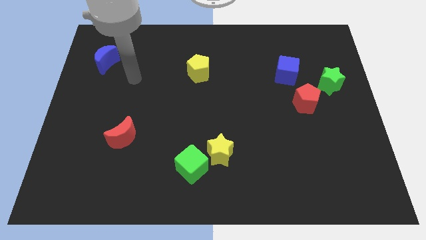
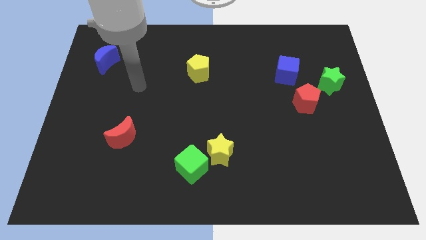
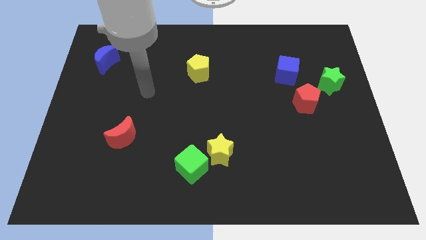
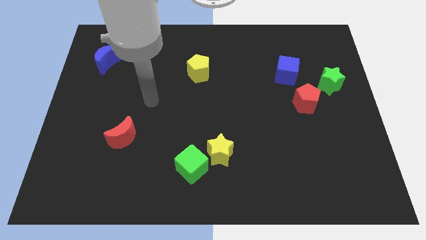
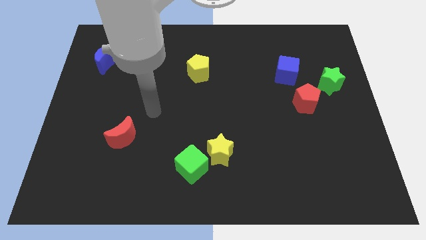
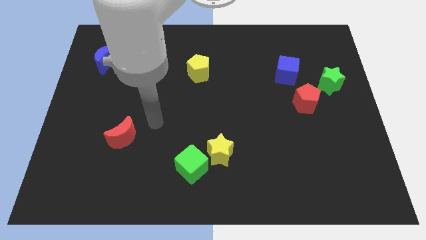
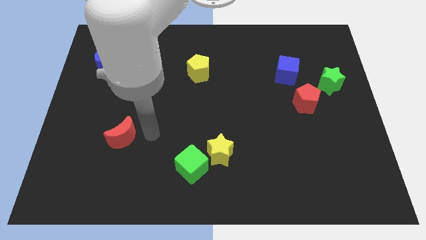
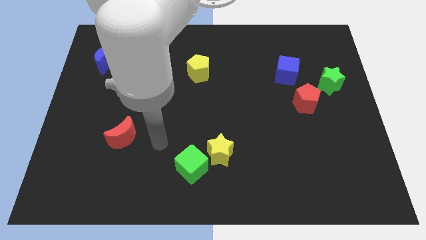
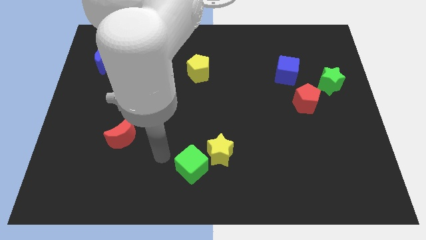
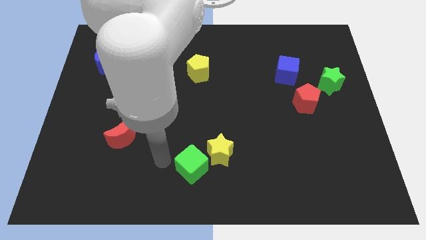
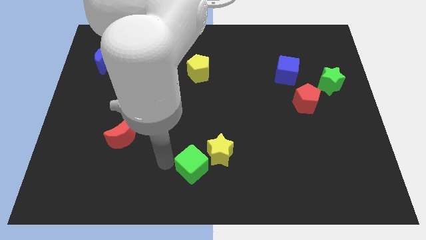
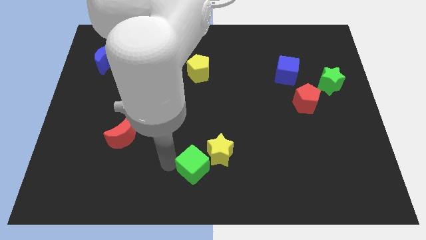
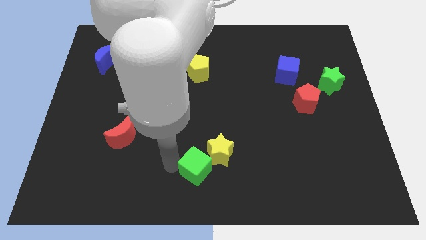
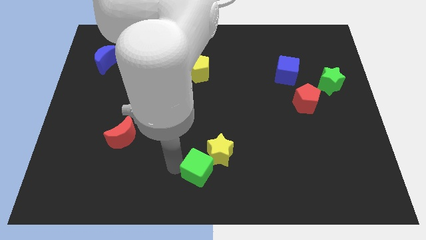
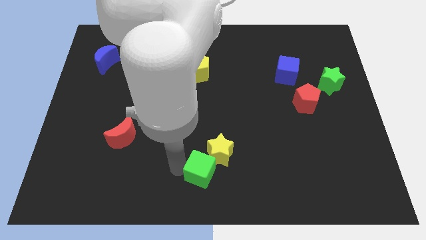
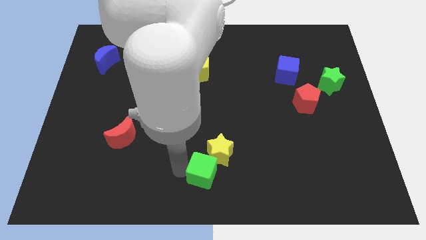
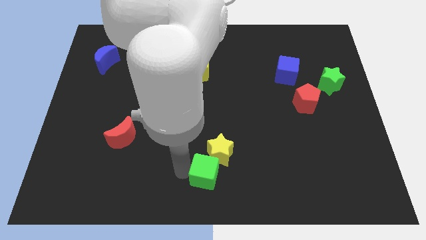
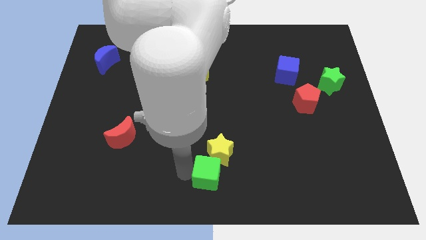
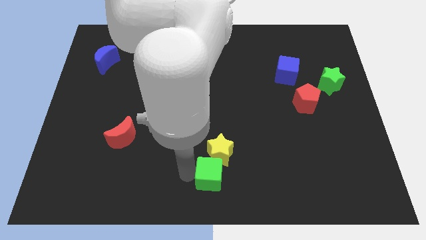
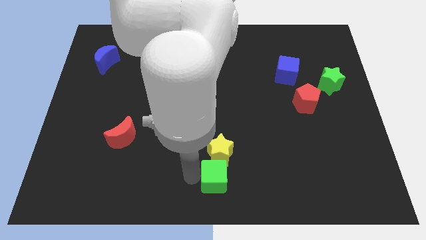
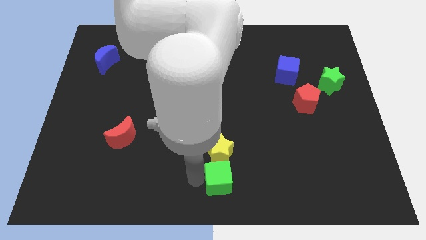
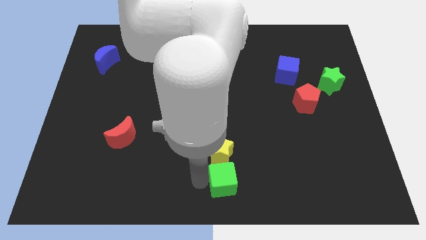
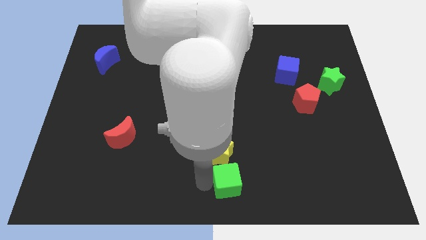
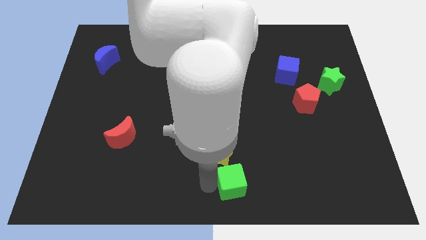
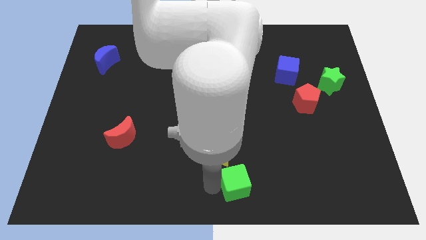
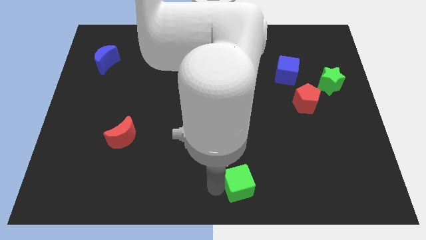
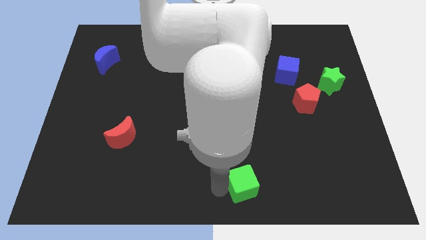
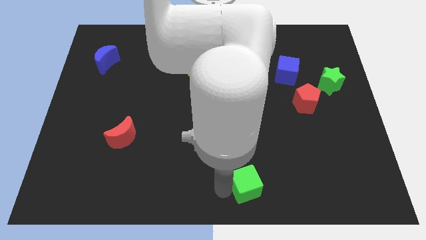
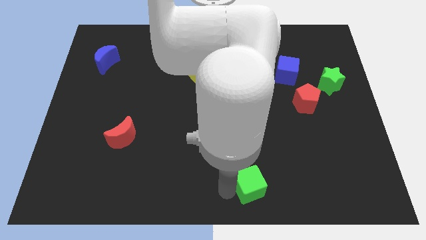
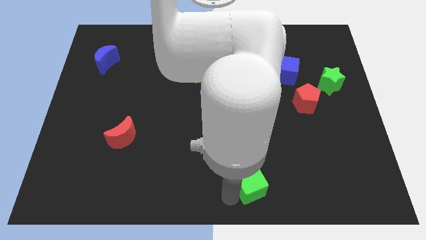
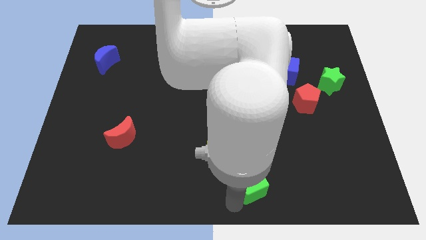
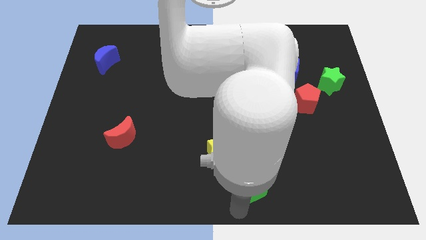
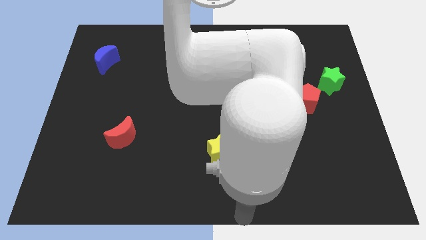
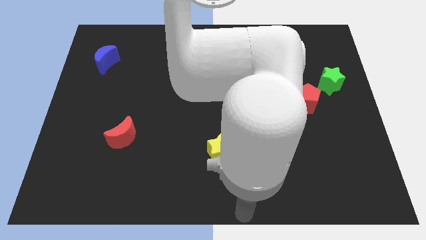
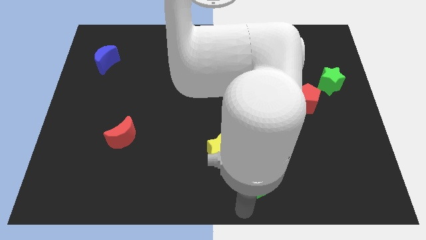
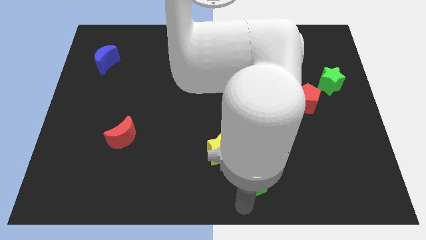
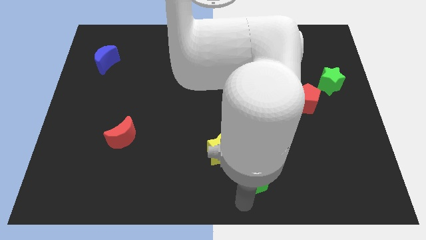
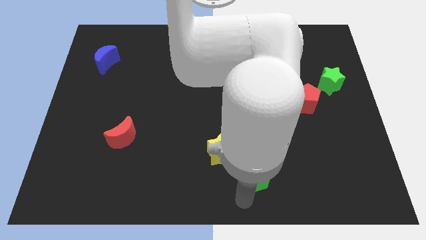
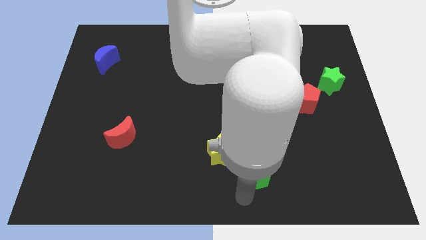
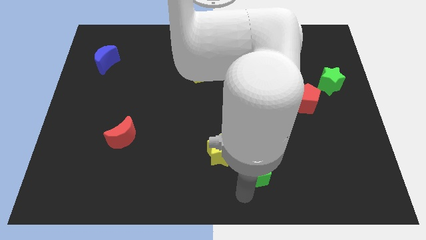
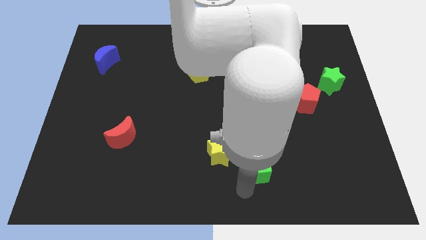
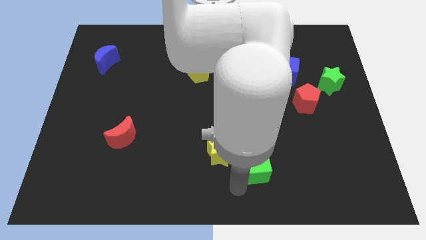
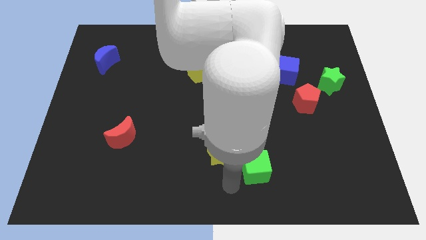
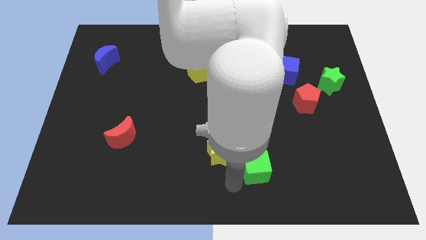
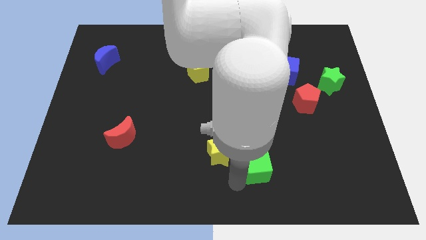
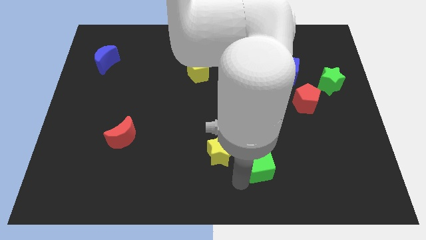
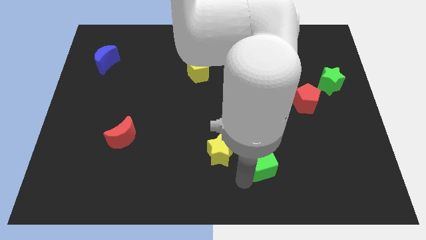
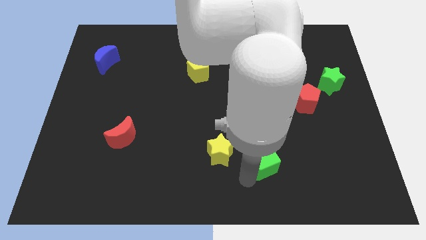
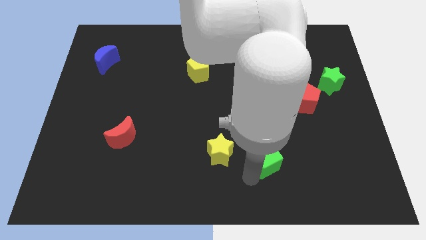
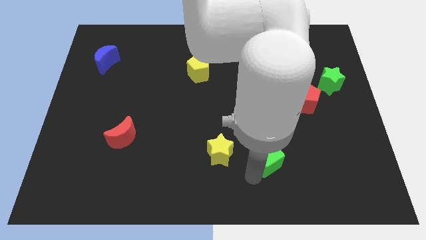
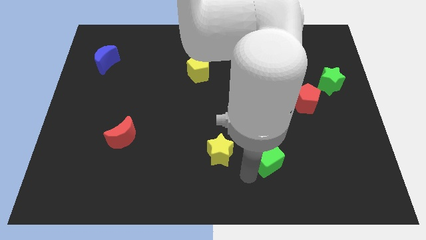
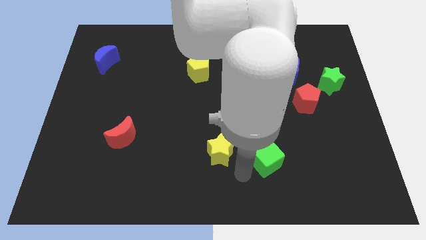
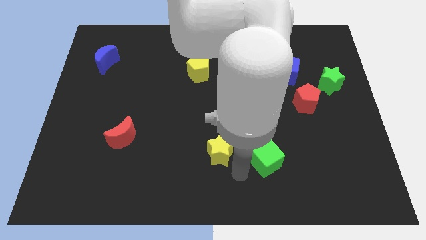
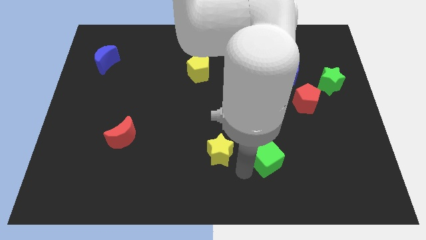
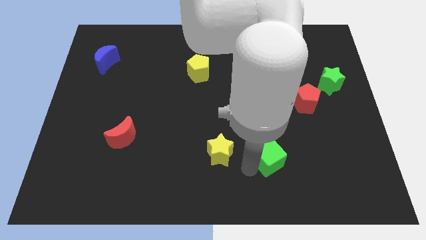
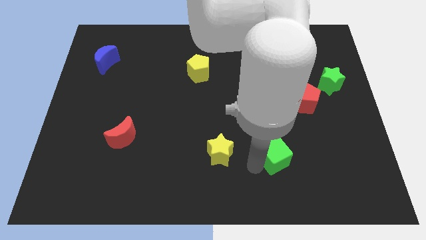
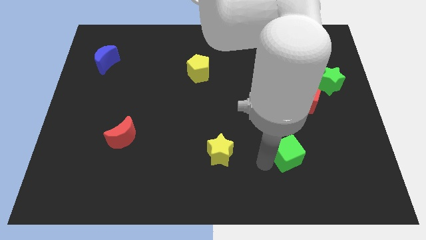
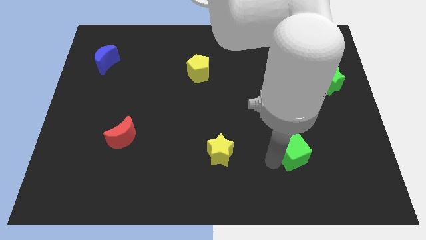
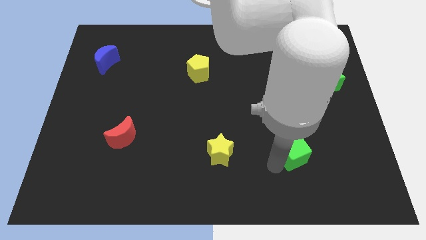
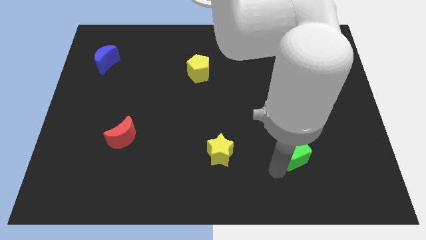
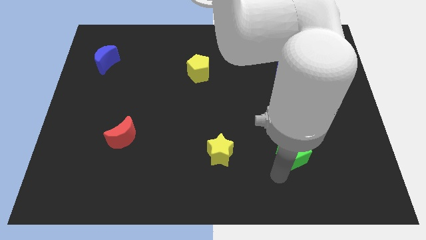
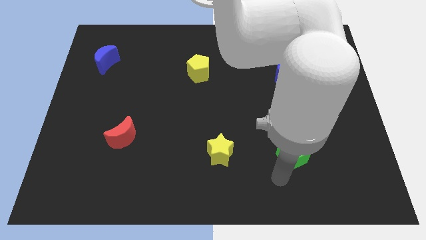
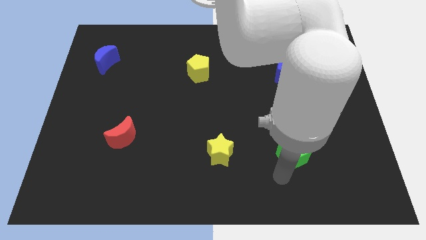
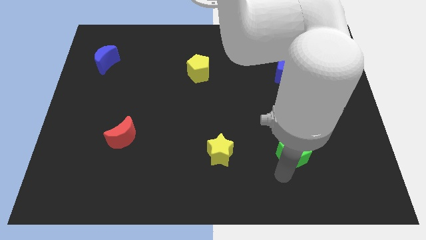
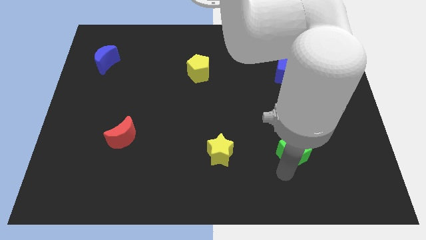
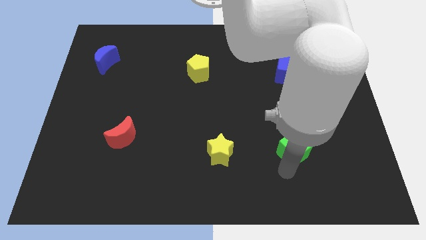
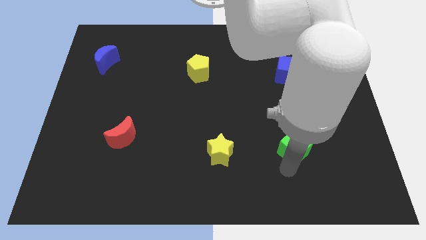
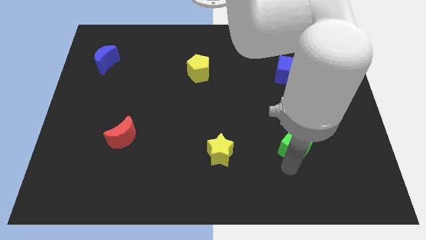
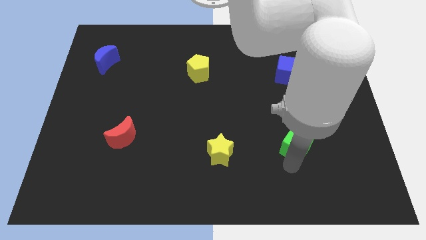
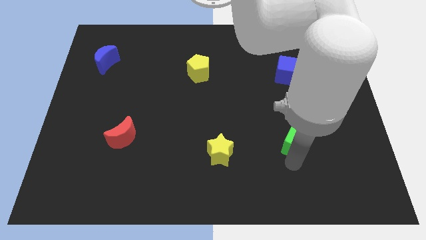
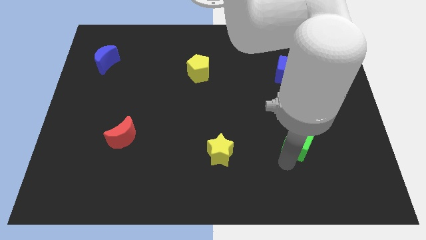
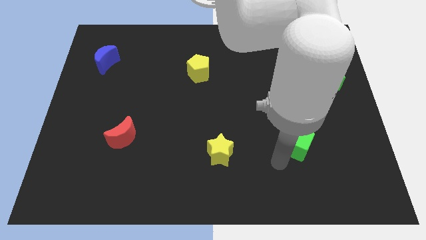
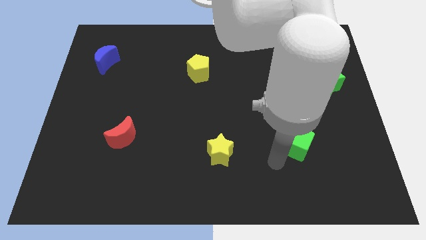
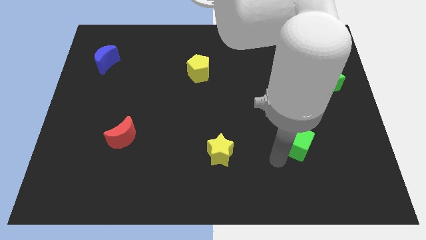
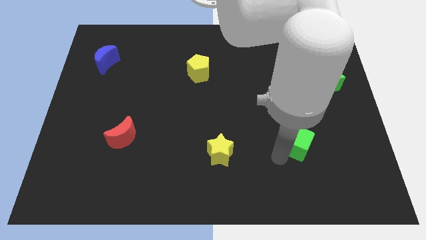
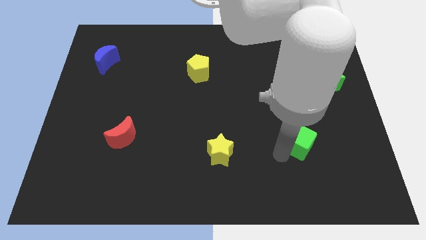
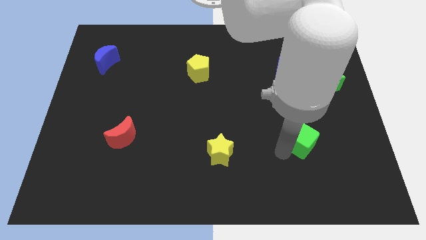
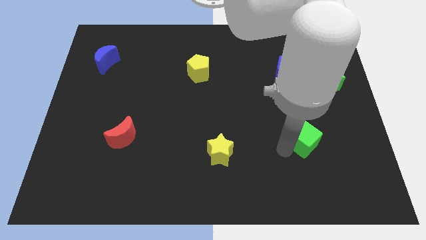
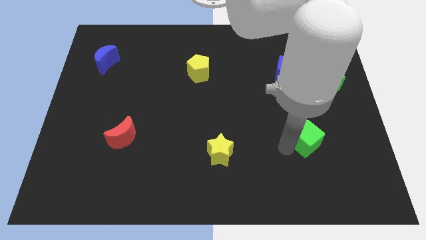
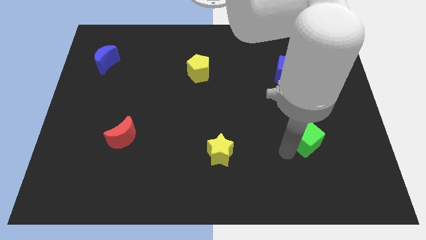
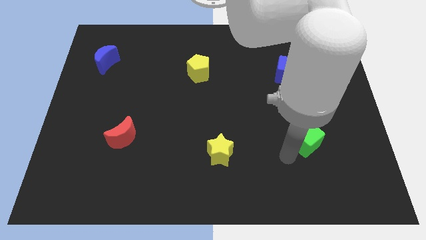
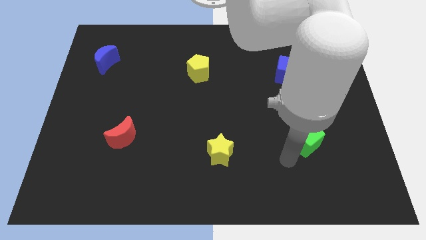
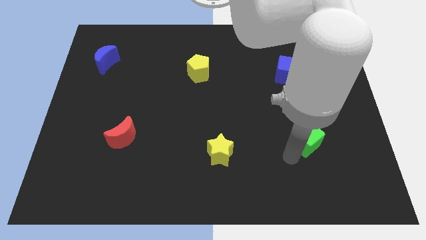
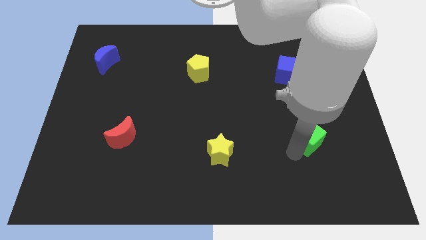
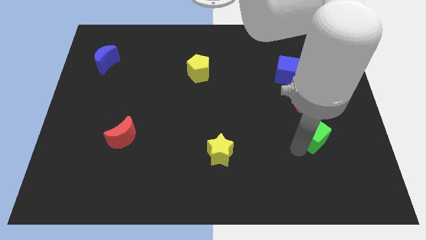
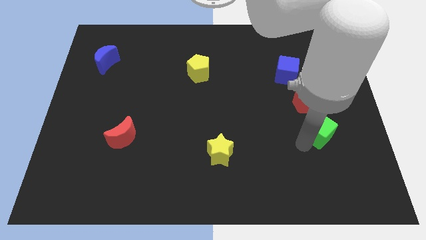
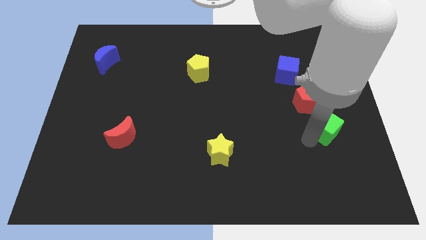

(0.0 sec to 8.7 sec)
slide the green cube to the bottom right side of the red pentagon
